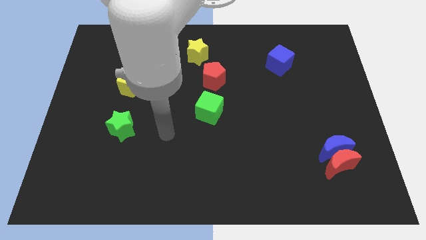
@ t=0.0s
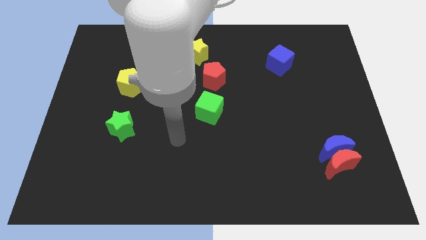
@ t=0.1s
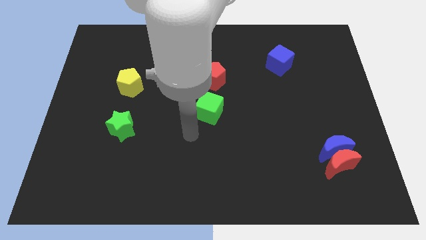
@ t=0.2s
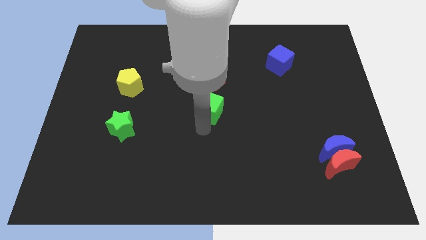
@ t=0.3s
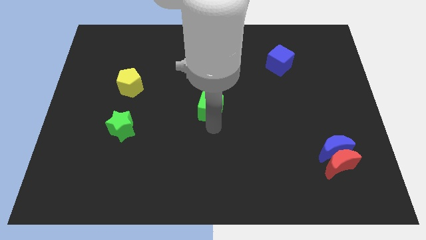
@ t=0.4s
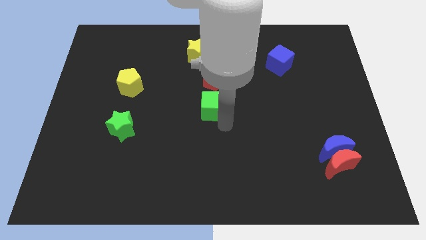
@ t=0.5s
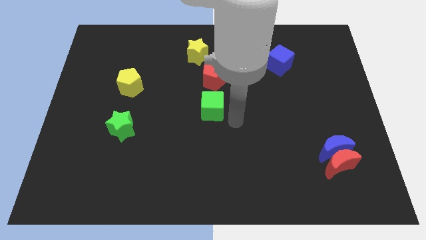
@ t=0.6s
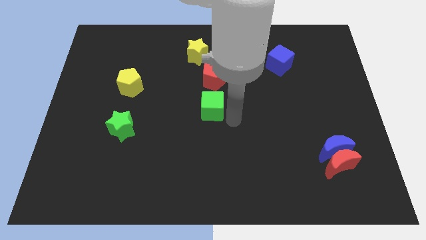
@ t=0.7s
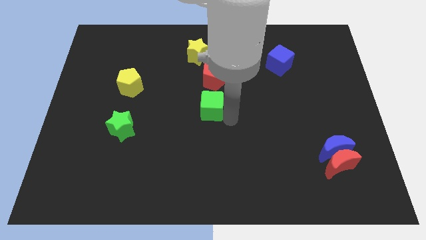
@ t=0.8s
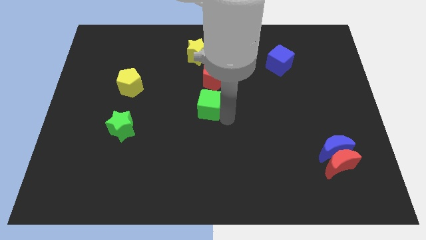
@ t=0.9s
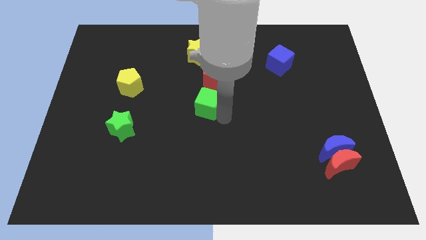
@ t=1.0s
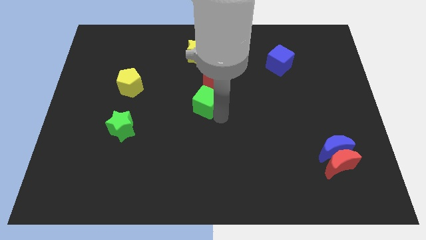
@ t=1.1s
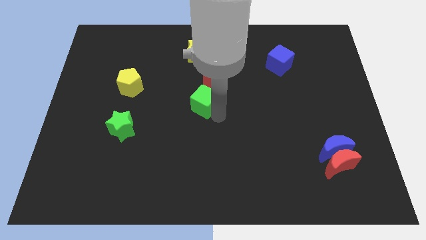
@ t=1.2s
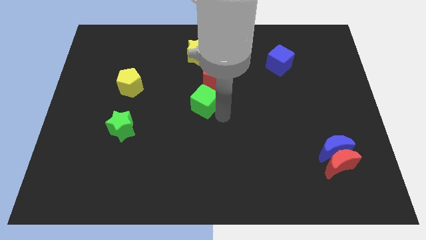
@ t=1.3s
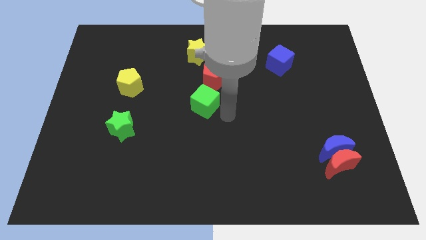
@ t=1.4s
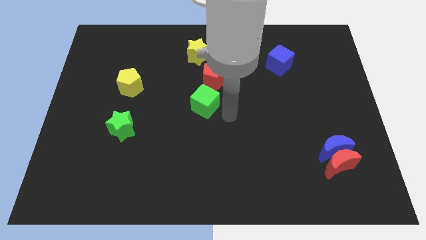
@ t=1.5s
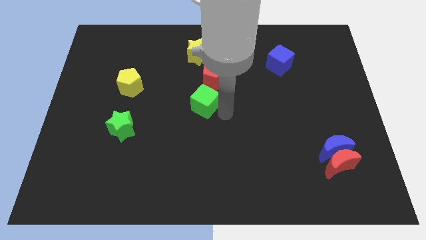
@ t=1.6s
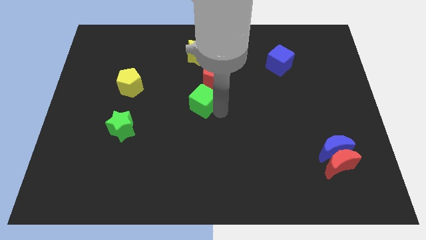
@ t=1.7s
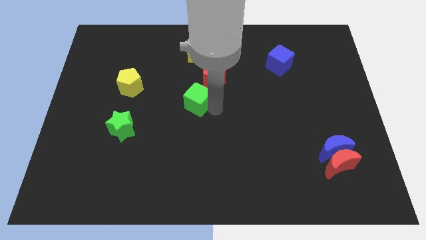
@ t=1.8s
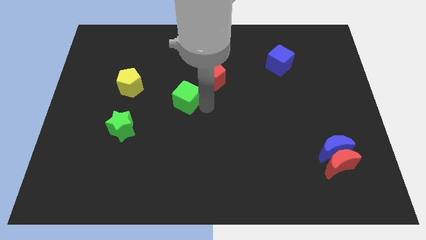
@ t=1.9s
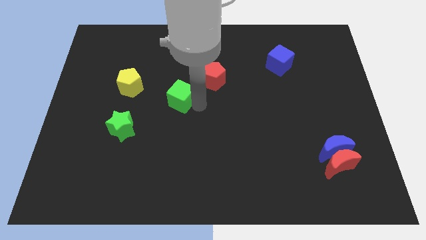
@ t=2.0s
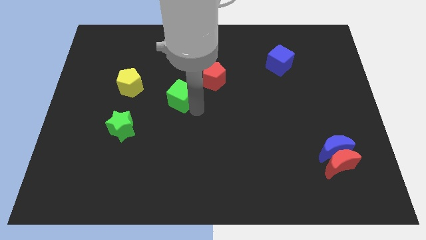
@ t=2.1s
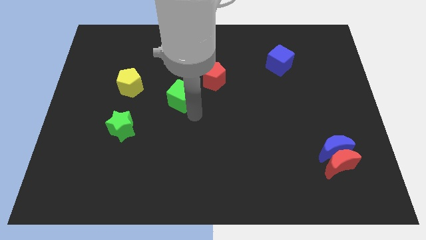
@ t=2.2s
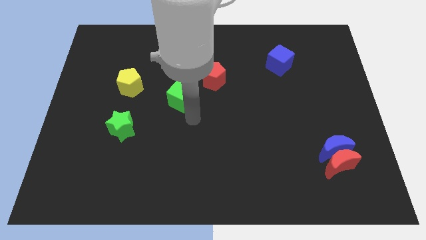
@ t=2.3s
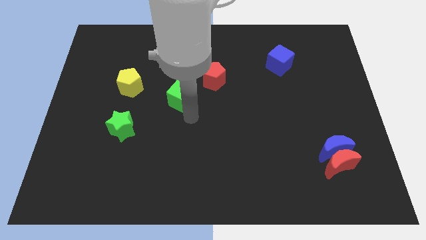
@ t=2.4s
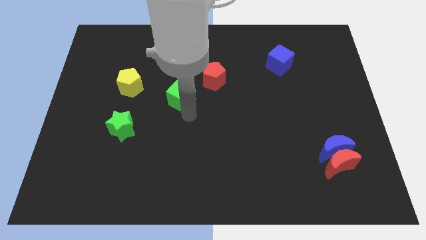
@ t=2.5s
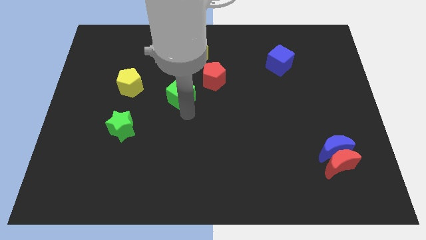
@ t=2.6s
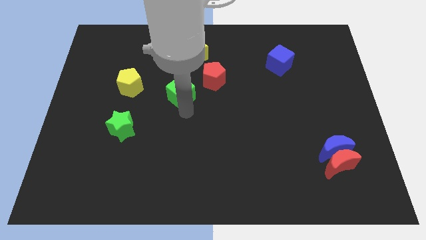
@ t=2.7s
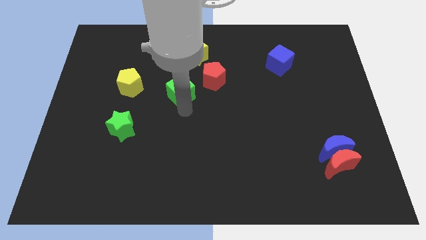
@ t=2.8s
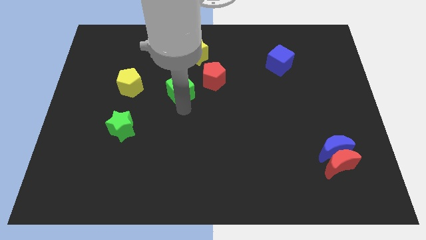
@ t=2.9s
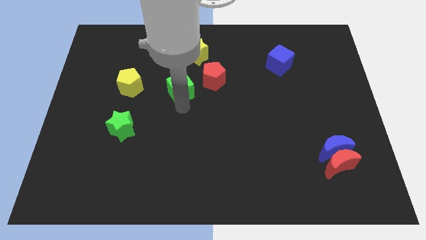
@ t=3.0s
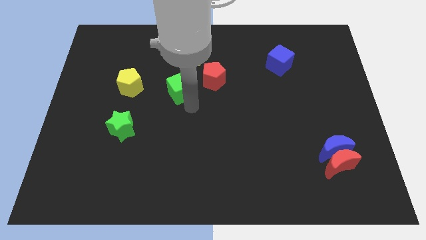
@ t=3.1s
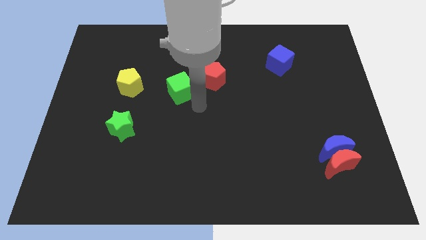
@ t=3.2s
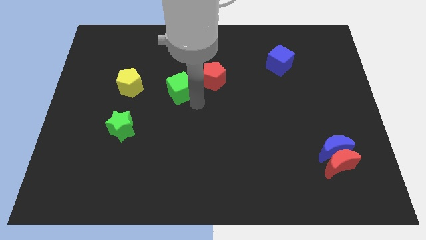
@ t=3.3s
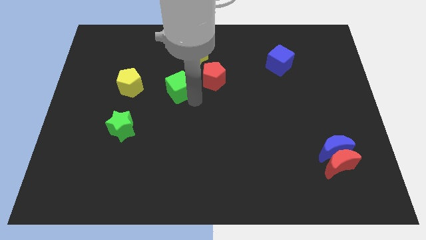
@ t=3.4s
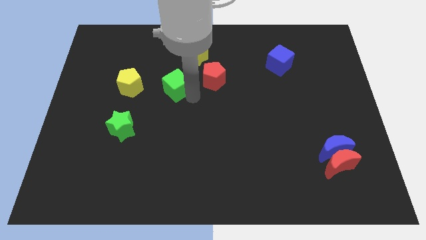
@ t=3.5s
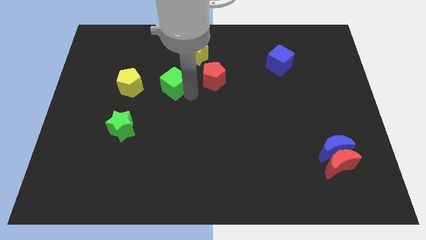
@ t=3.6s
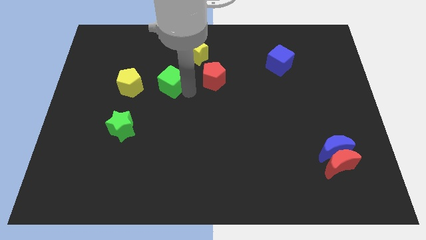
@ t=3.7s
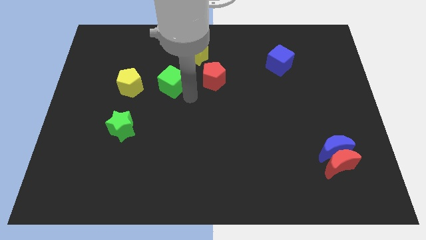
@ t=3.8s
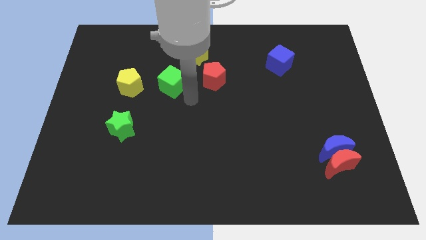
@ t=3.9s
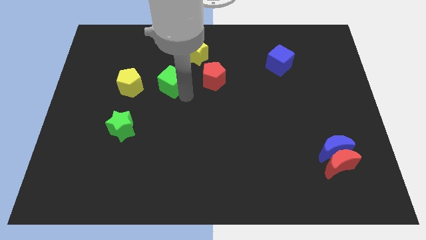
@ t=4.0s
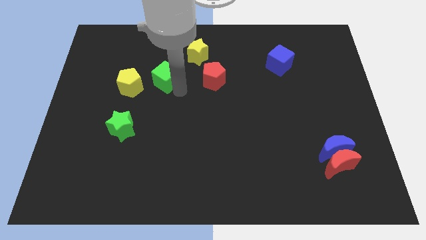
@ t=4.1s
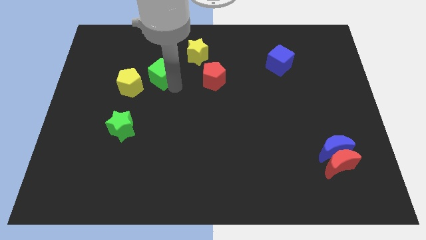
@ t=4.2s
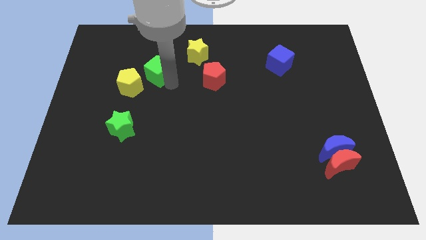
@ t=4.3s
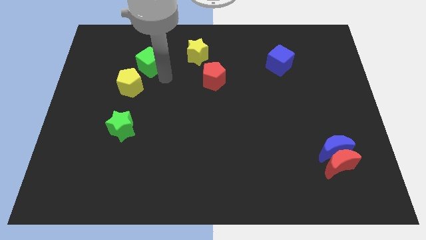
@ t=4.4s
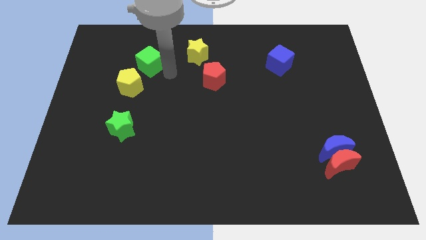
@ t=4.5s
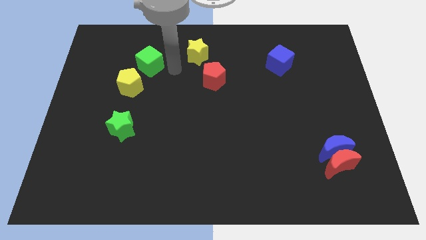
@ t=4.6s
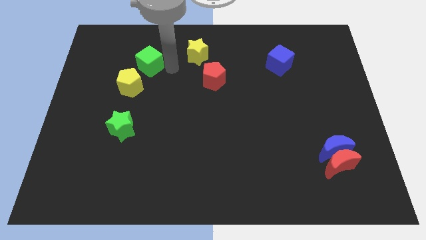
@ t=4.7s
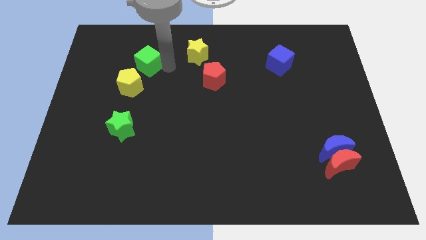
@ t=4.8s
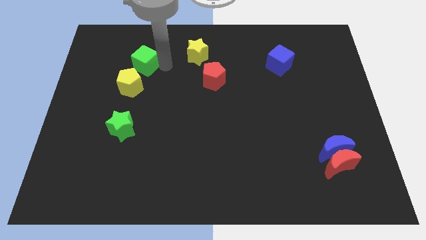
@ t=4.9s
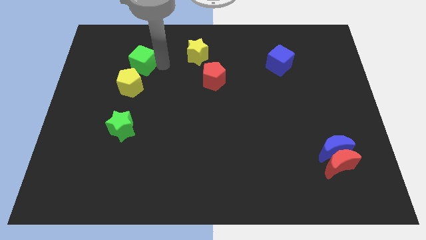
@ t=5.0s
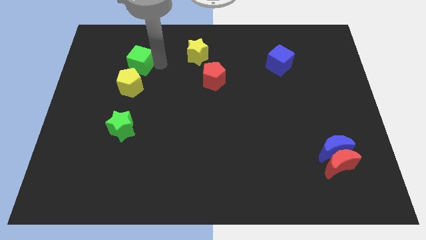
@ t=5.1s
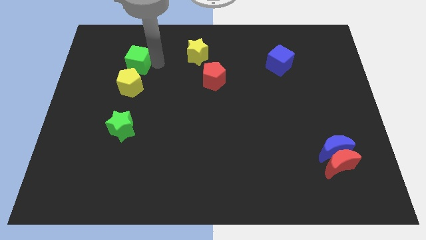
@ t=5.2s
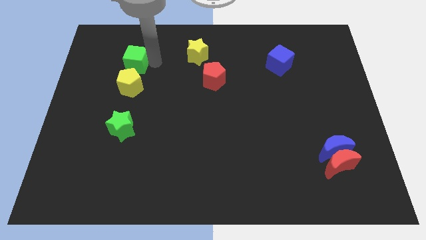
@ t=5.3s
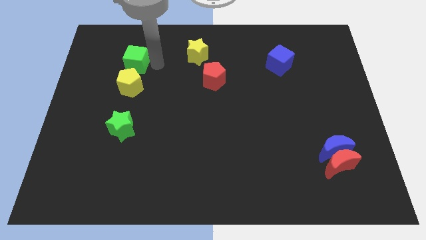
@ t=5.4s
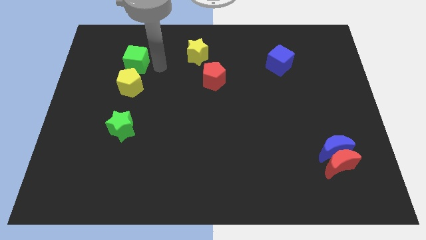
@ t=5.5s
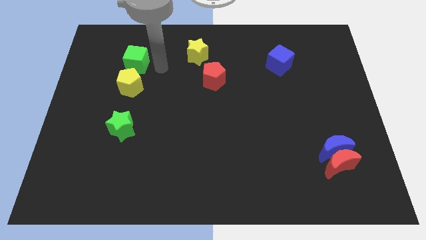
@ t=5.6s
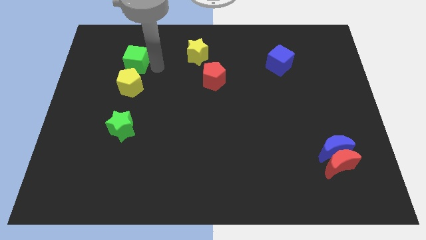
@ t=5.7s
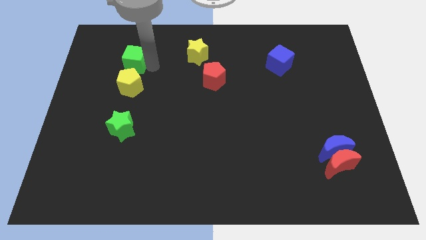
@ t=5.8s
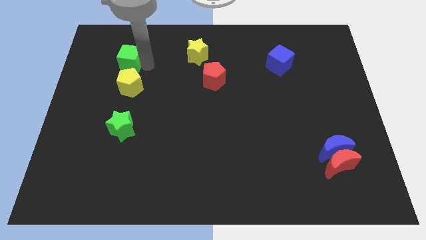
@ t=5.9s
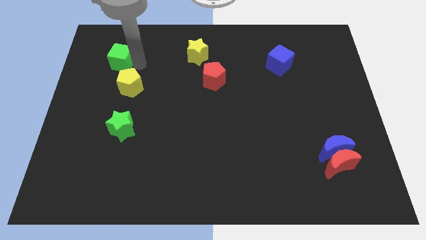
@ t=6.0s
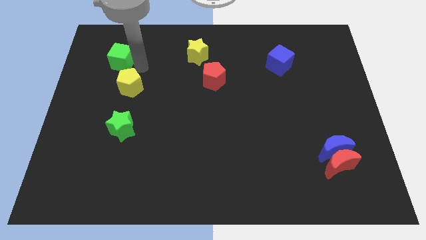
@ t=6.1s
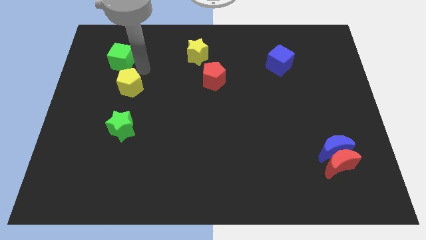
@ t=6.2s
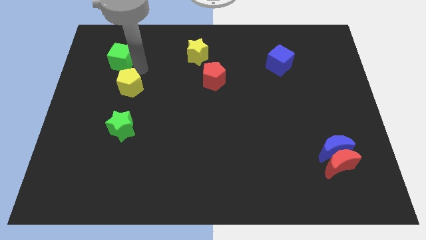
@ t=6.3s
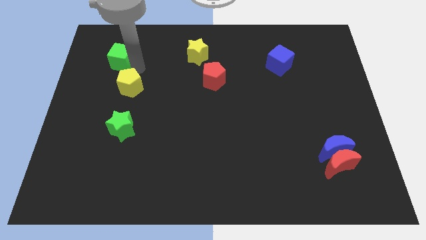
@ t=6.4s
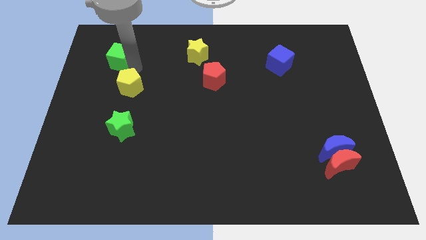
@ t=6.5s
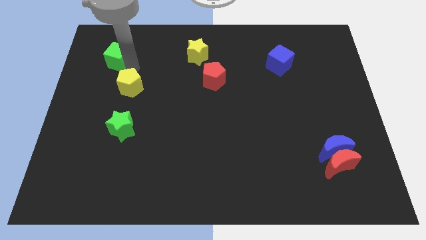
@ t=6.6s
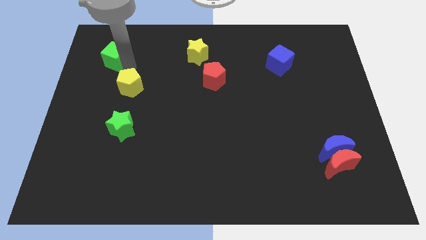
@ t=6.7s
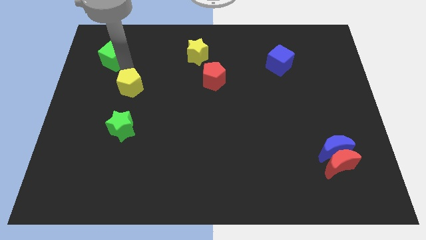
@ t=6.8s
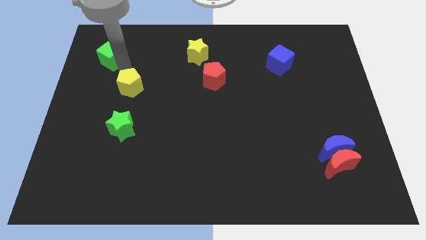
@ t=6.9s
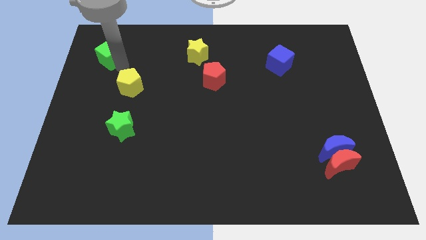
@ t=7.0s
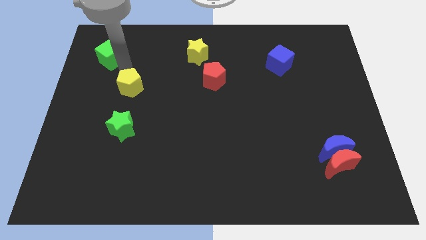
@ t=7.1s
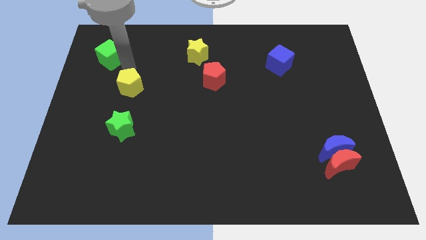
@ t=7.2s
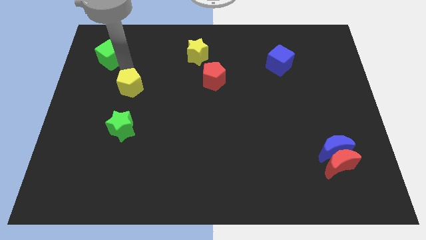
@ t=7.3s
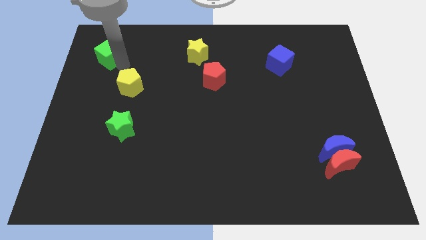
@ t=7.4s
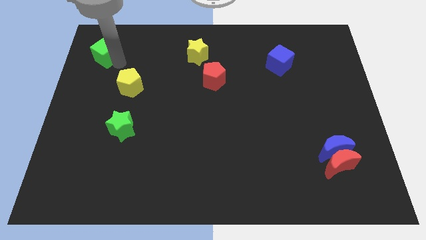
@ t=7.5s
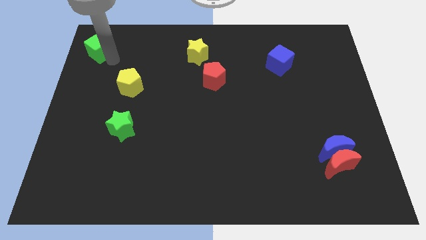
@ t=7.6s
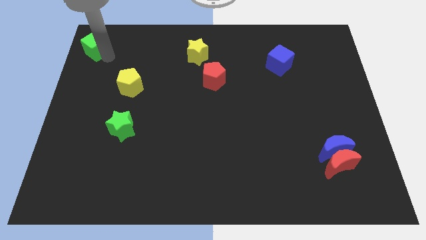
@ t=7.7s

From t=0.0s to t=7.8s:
move the green cube to the top left

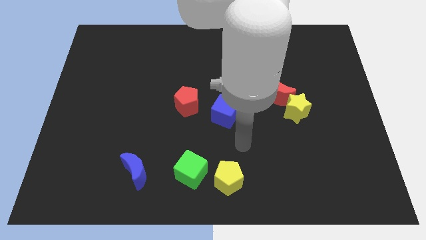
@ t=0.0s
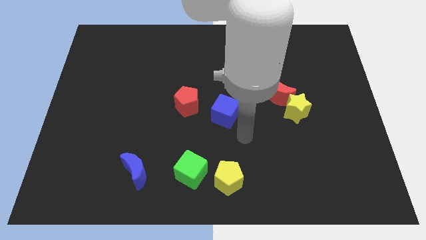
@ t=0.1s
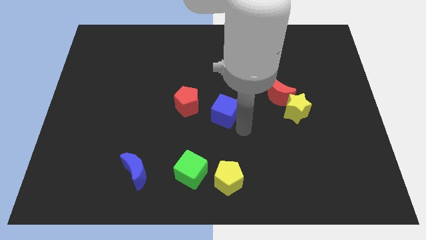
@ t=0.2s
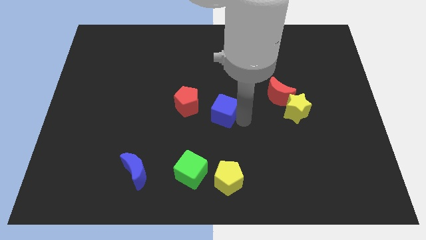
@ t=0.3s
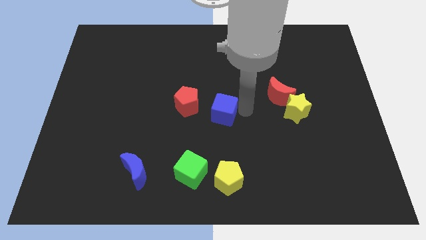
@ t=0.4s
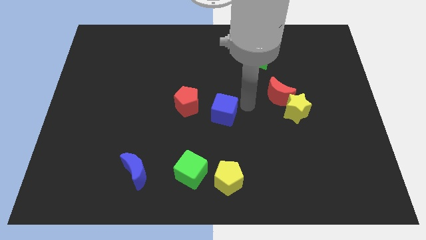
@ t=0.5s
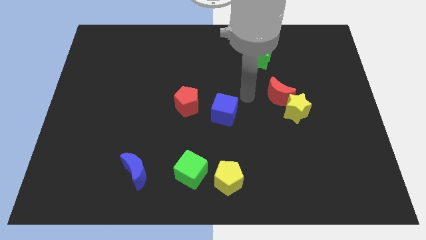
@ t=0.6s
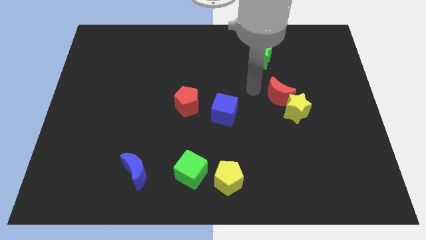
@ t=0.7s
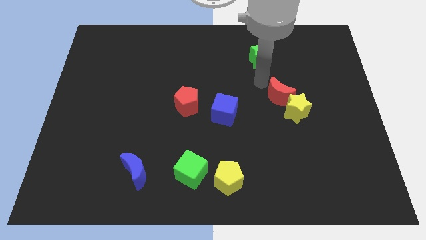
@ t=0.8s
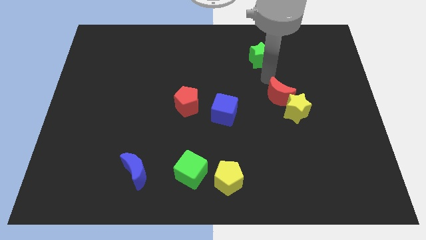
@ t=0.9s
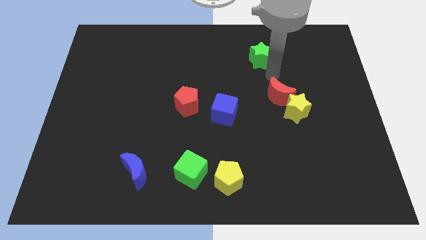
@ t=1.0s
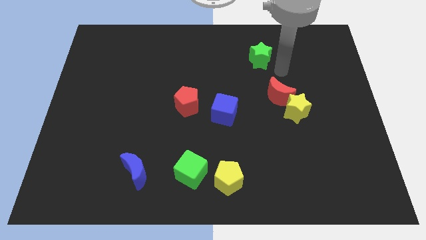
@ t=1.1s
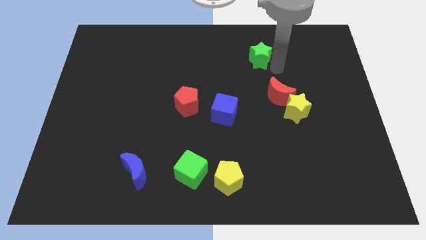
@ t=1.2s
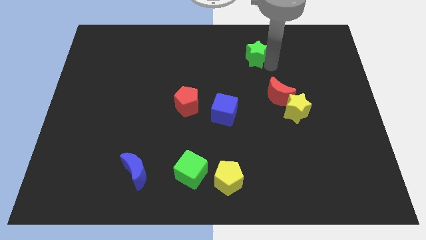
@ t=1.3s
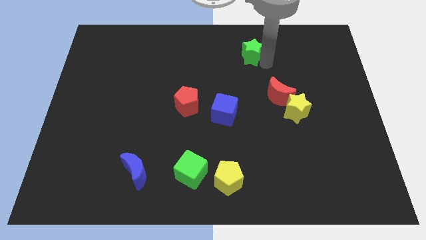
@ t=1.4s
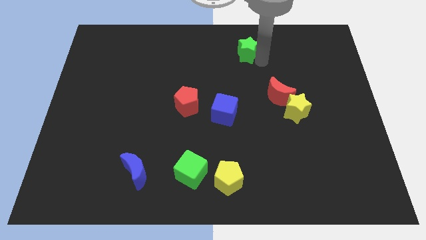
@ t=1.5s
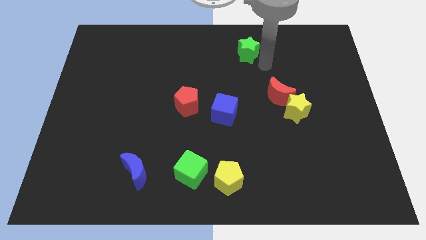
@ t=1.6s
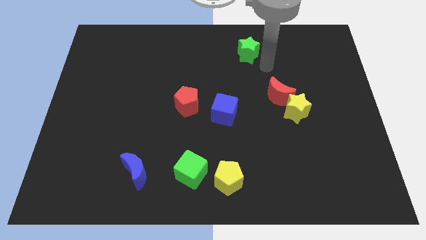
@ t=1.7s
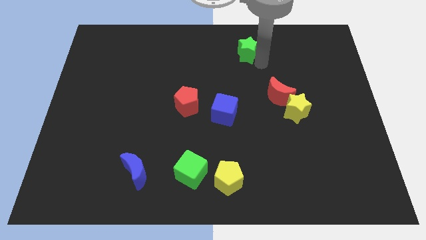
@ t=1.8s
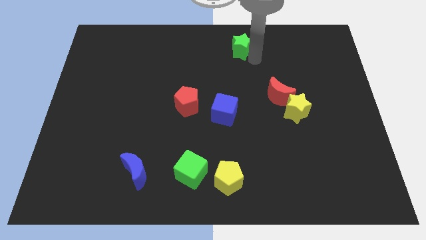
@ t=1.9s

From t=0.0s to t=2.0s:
put the green star to the towards your base
